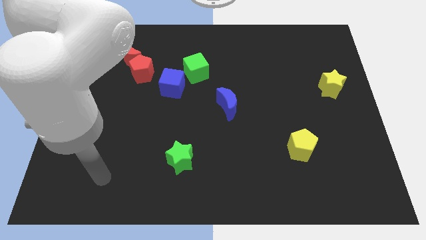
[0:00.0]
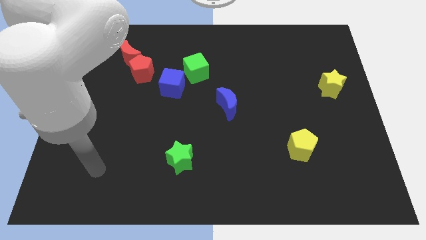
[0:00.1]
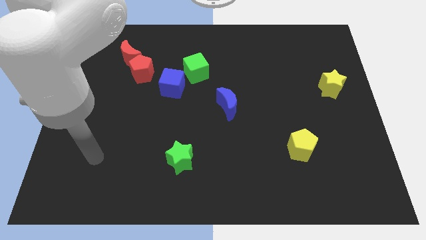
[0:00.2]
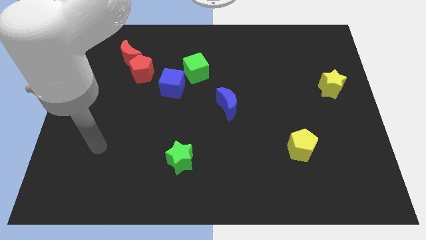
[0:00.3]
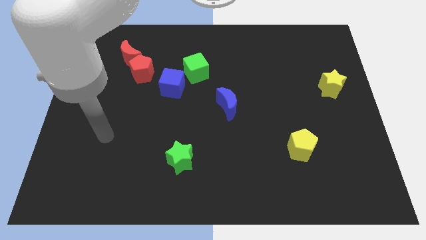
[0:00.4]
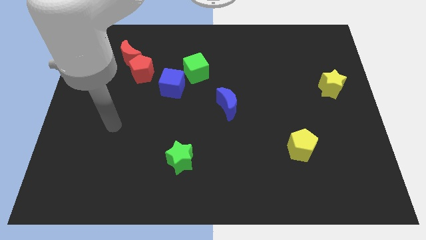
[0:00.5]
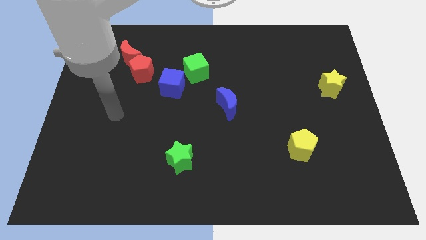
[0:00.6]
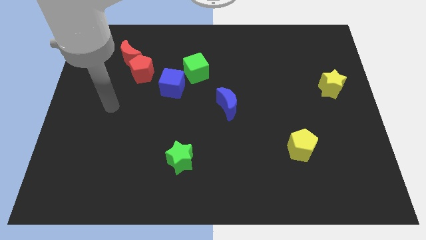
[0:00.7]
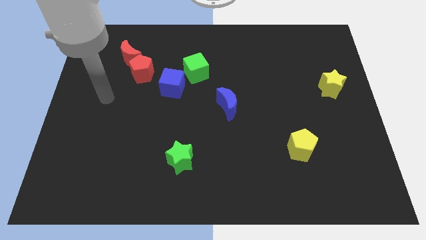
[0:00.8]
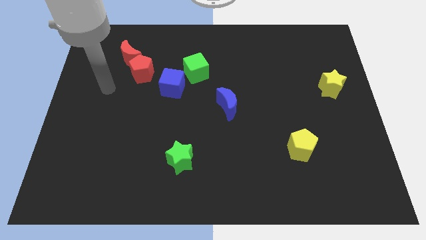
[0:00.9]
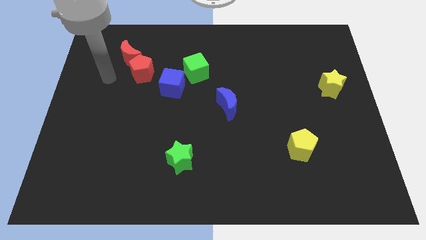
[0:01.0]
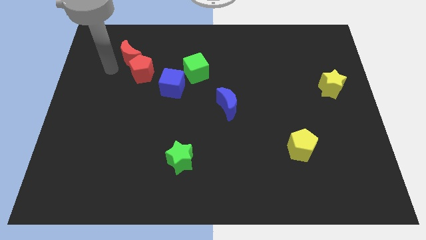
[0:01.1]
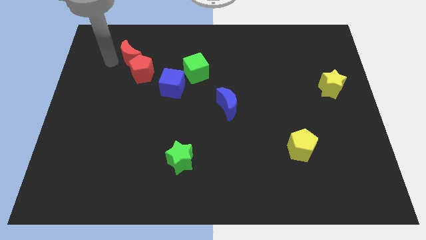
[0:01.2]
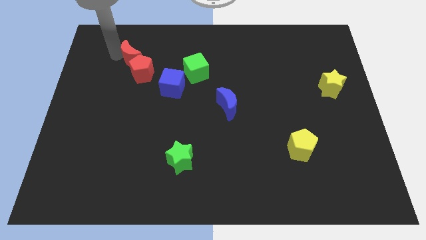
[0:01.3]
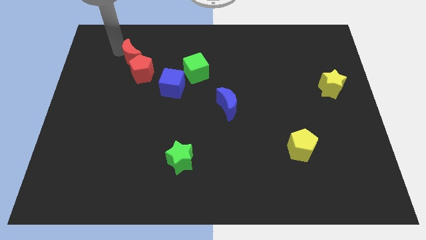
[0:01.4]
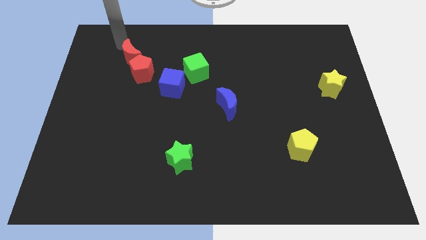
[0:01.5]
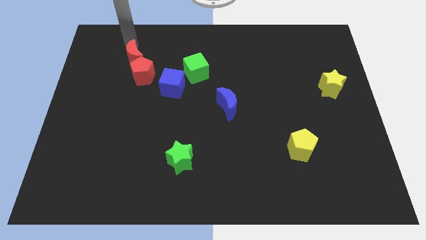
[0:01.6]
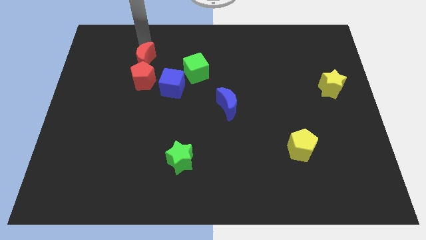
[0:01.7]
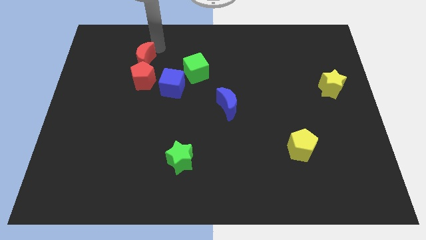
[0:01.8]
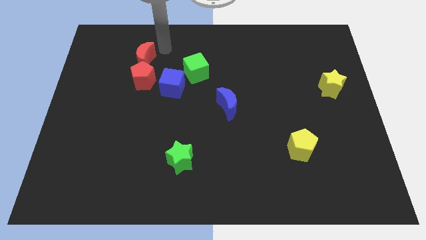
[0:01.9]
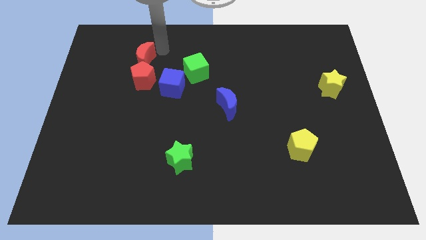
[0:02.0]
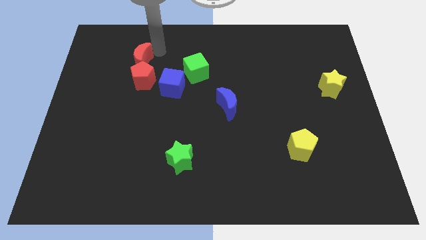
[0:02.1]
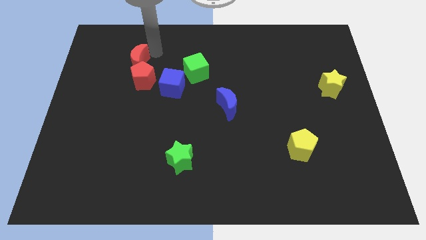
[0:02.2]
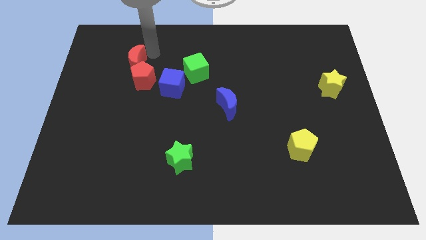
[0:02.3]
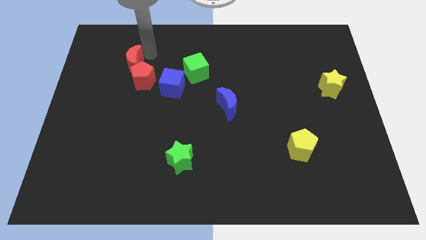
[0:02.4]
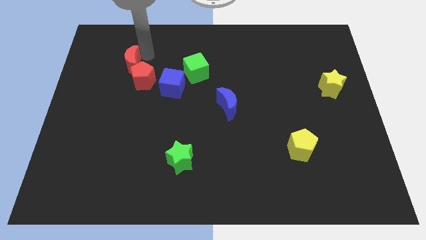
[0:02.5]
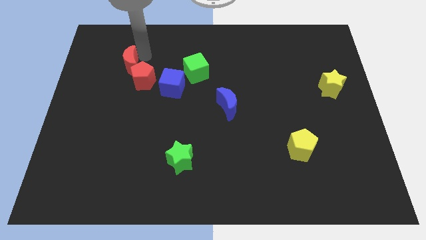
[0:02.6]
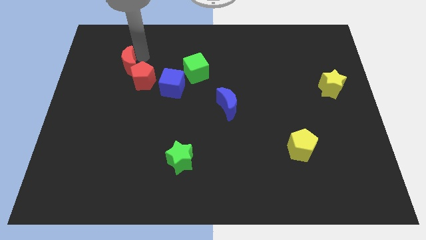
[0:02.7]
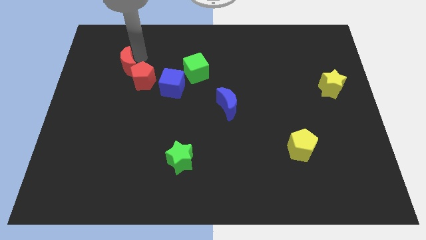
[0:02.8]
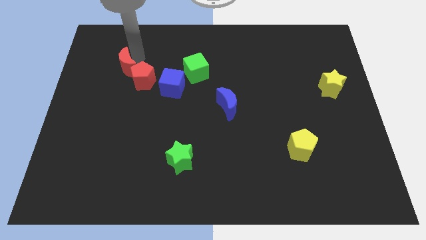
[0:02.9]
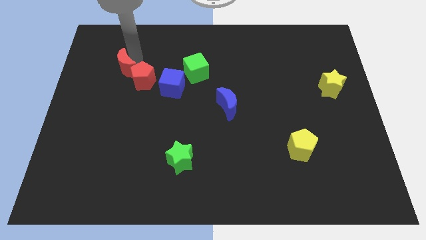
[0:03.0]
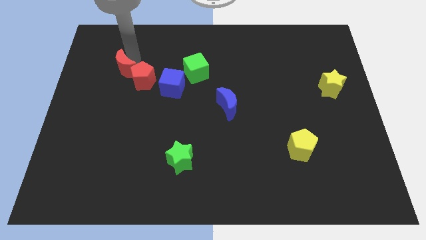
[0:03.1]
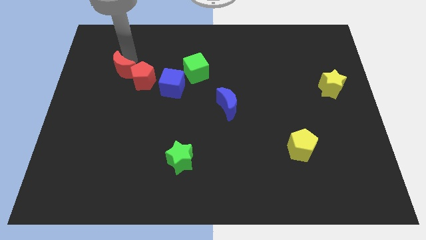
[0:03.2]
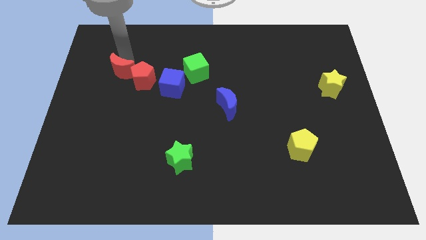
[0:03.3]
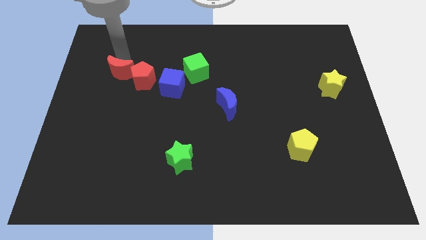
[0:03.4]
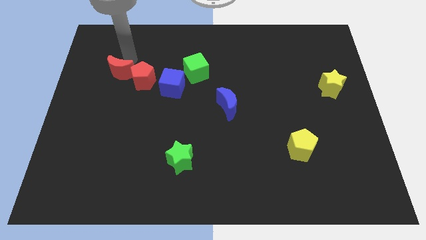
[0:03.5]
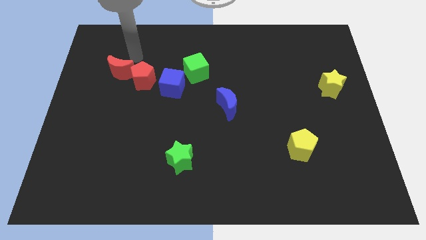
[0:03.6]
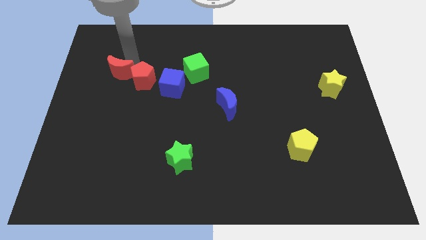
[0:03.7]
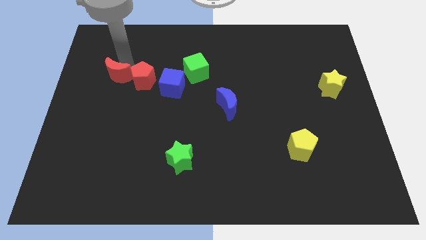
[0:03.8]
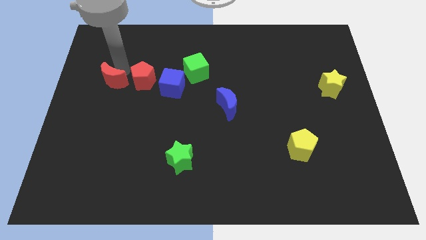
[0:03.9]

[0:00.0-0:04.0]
push the red moon slightly down

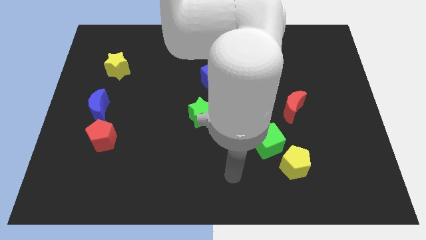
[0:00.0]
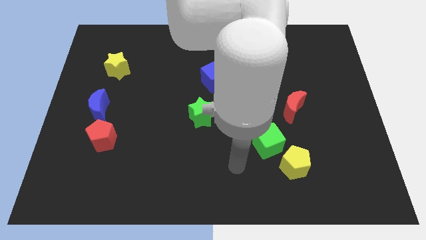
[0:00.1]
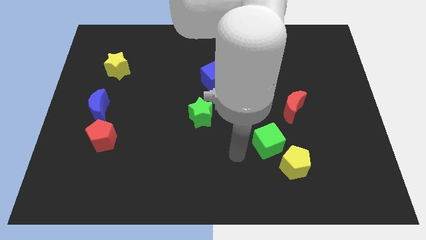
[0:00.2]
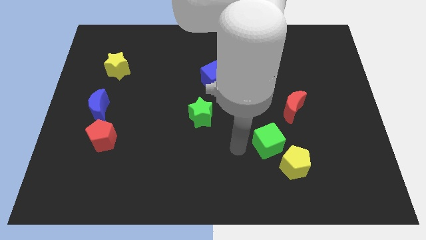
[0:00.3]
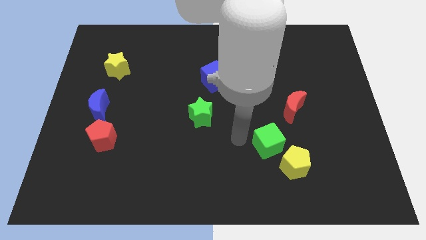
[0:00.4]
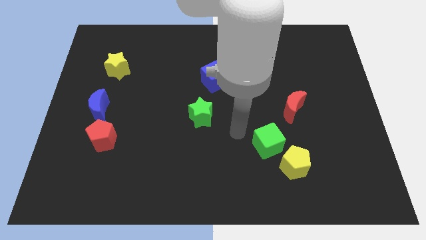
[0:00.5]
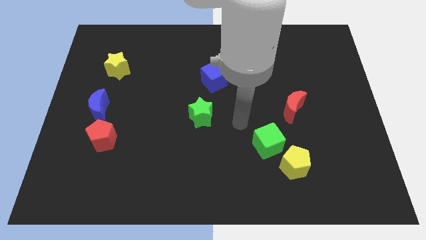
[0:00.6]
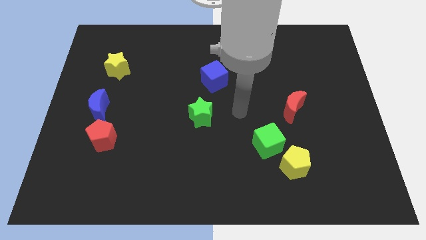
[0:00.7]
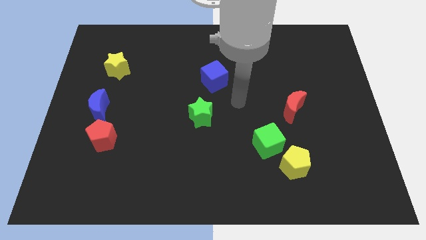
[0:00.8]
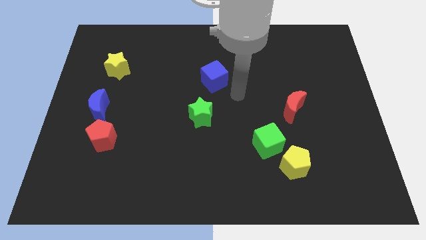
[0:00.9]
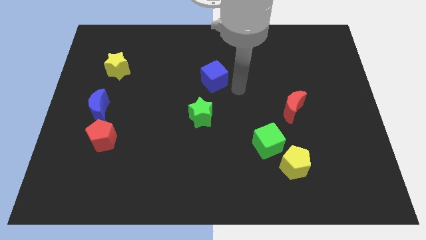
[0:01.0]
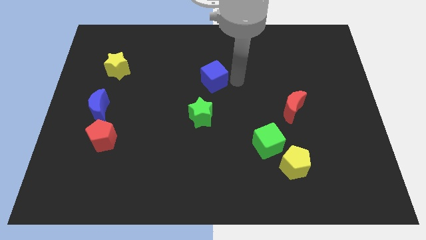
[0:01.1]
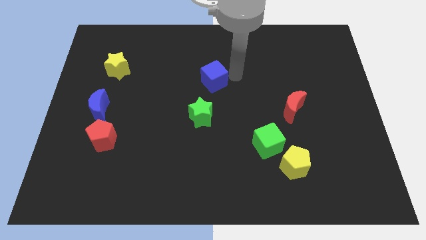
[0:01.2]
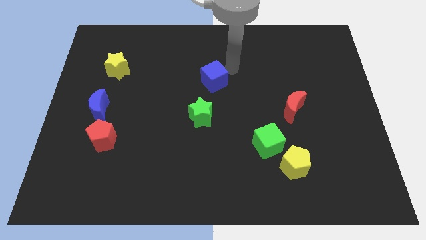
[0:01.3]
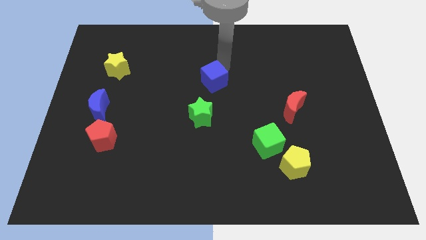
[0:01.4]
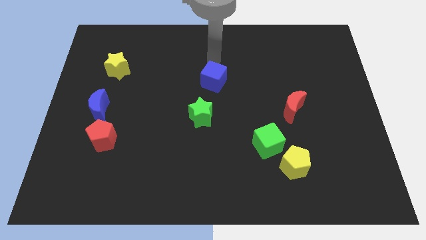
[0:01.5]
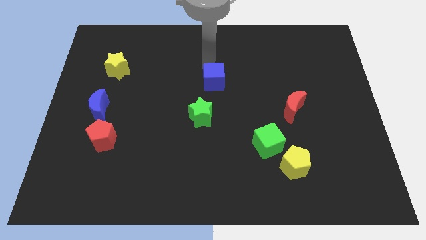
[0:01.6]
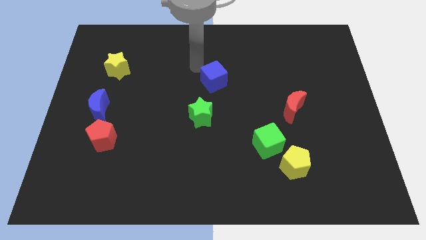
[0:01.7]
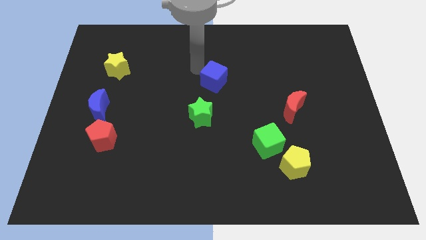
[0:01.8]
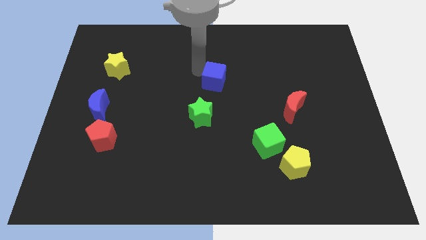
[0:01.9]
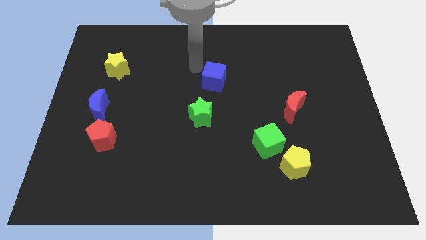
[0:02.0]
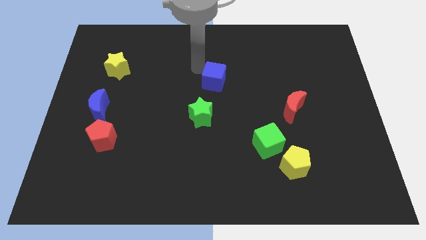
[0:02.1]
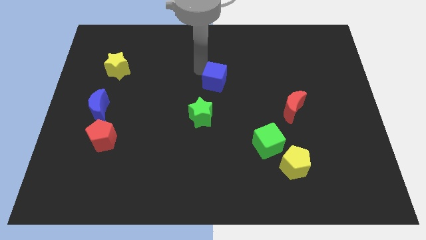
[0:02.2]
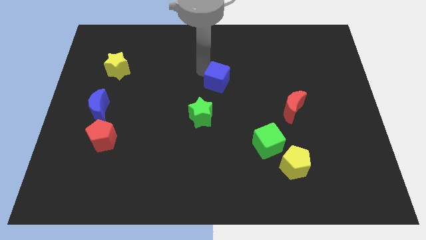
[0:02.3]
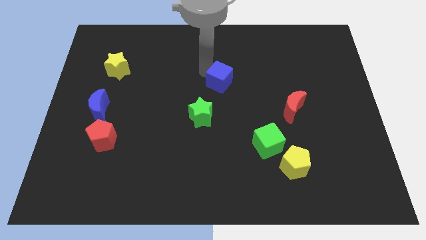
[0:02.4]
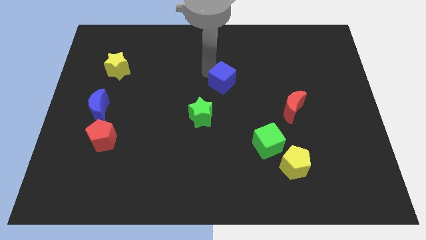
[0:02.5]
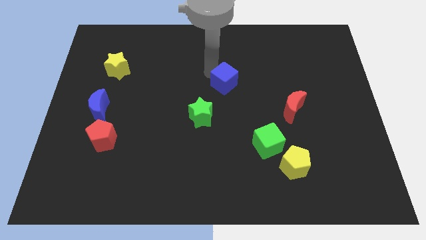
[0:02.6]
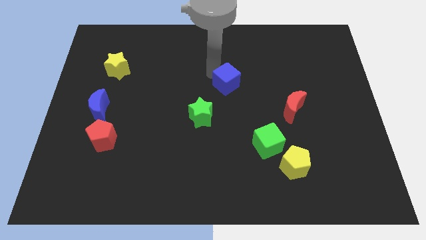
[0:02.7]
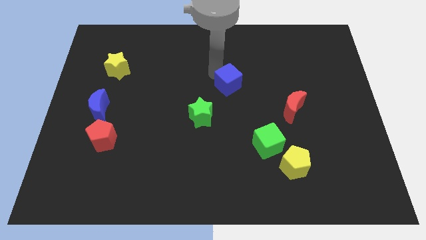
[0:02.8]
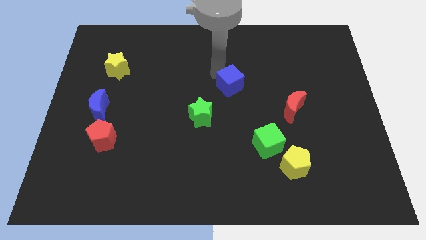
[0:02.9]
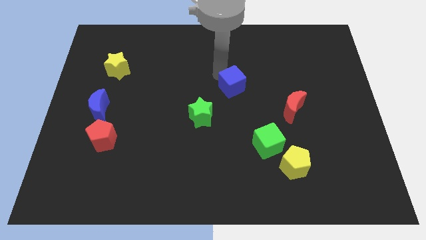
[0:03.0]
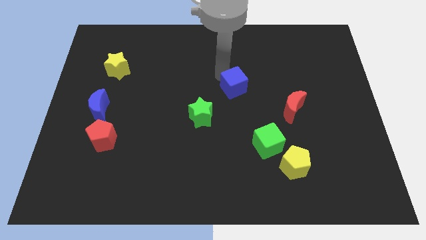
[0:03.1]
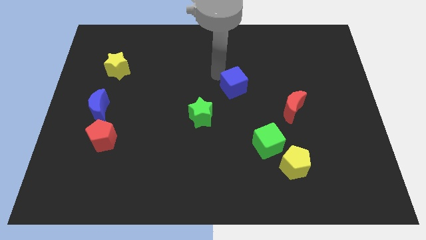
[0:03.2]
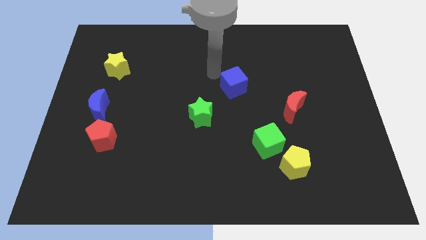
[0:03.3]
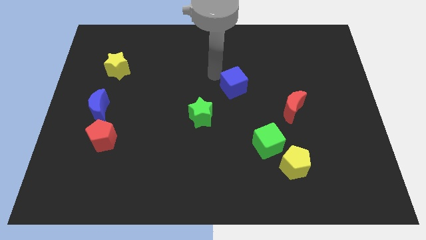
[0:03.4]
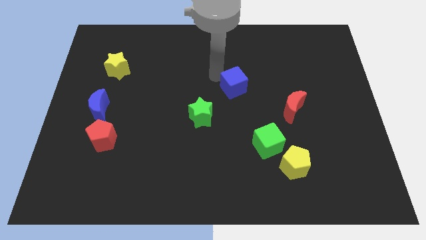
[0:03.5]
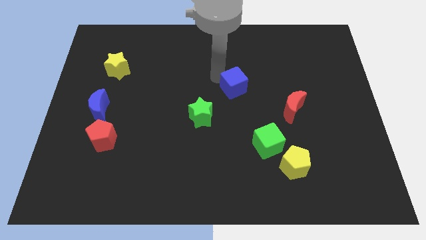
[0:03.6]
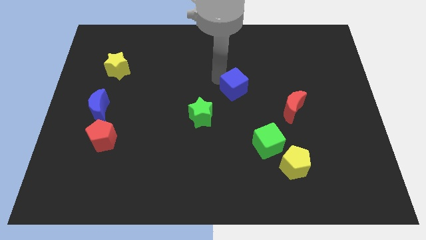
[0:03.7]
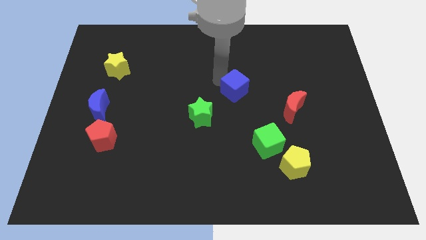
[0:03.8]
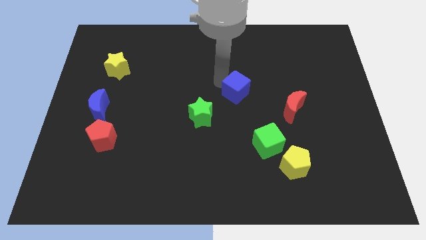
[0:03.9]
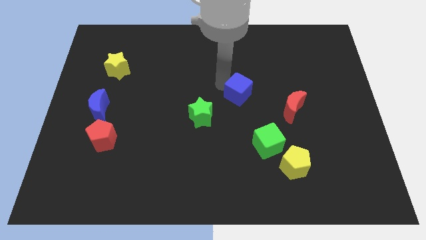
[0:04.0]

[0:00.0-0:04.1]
move the blue cube slightly diagonally down and right

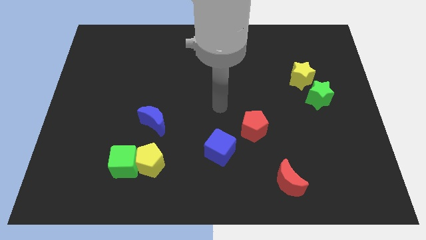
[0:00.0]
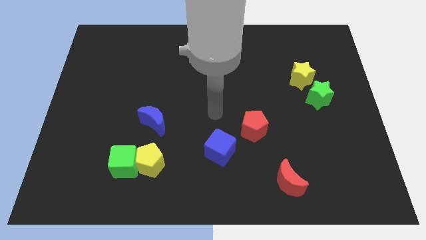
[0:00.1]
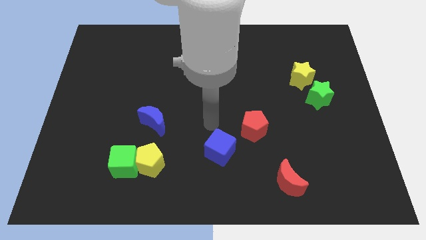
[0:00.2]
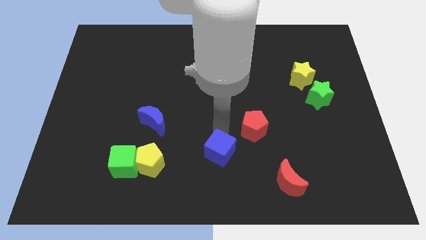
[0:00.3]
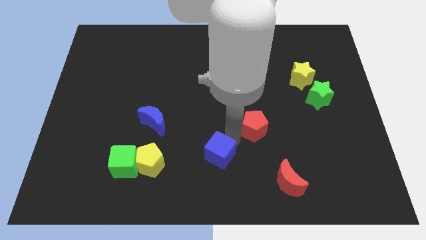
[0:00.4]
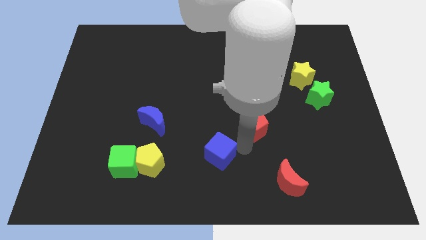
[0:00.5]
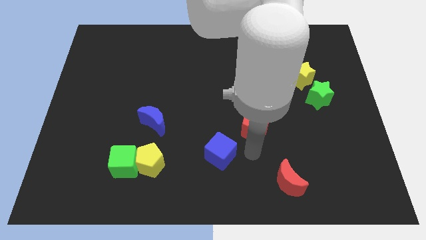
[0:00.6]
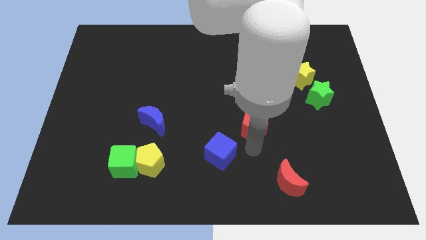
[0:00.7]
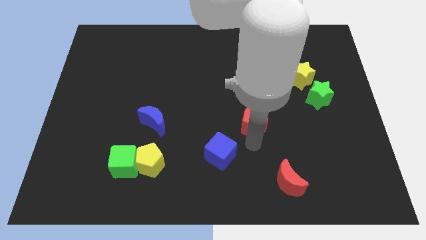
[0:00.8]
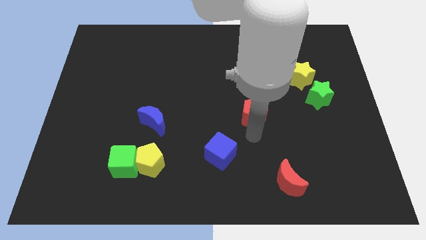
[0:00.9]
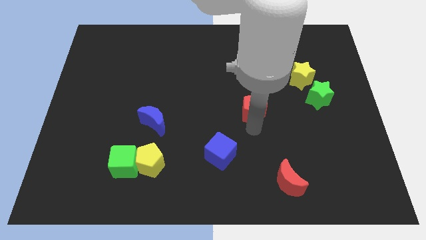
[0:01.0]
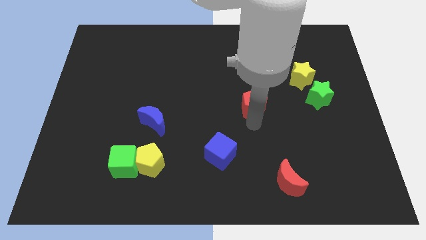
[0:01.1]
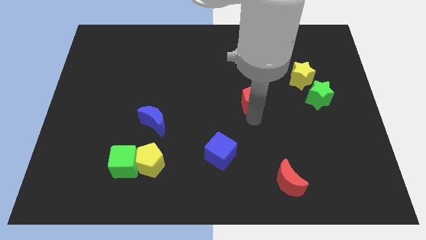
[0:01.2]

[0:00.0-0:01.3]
slide the red pentagon upwards slightly
